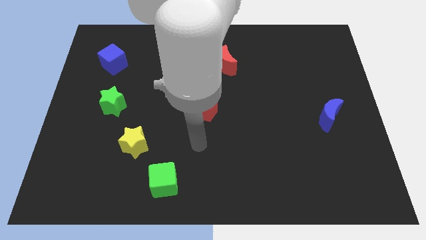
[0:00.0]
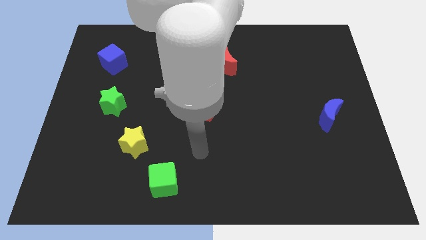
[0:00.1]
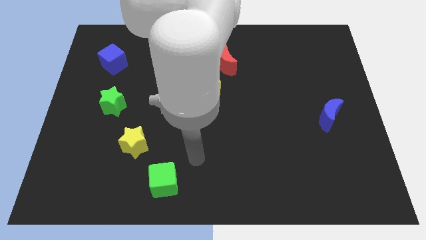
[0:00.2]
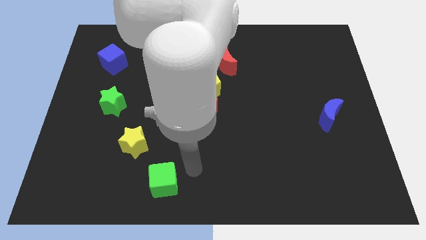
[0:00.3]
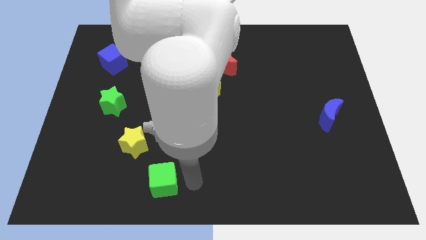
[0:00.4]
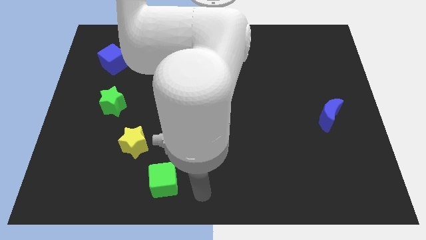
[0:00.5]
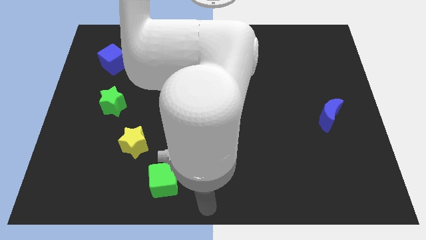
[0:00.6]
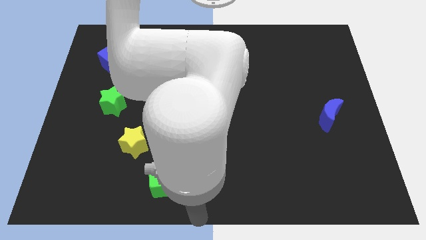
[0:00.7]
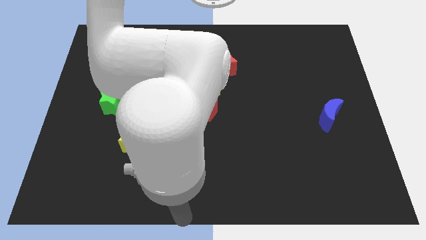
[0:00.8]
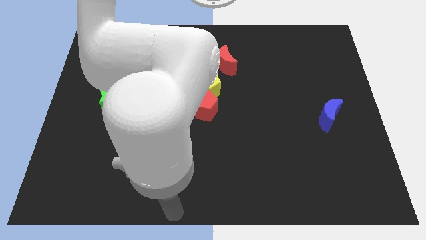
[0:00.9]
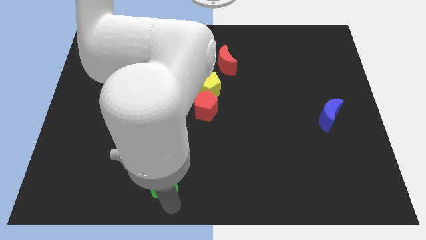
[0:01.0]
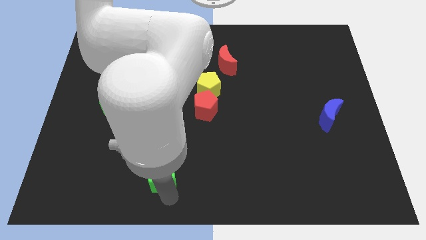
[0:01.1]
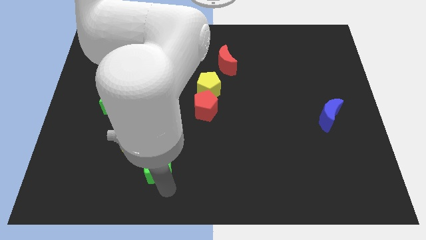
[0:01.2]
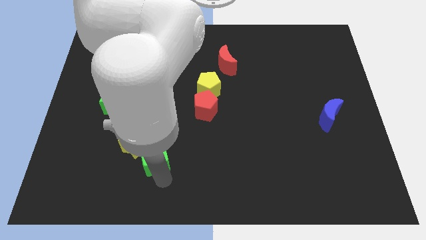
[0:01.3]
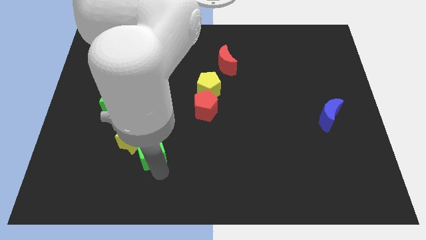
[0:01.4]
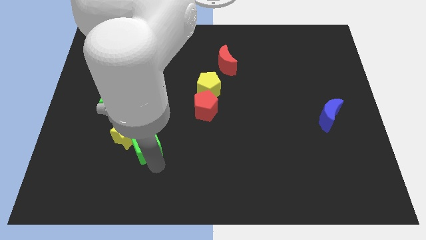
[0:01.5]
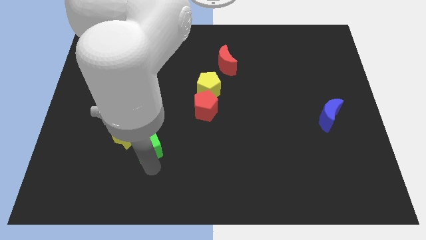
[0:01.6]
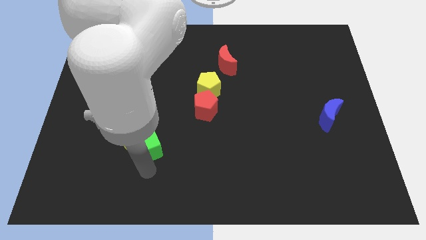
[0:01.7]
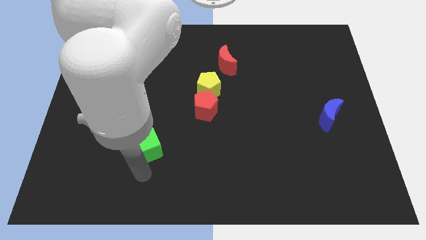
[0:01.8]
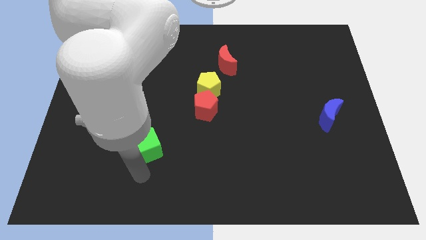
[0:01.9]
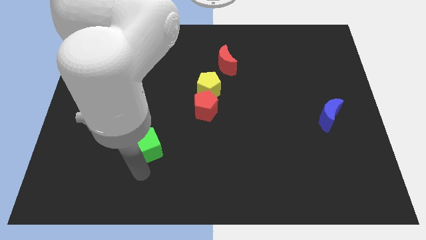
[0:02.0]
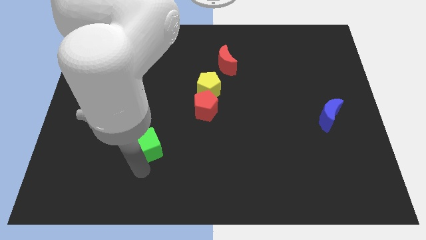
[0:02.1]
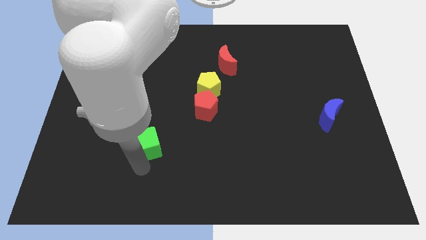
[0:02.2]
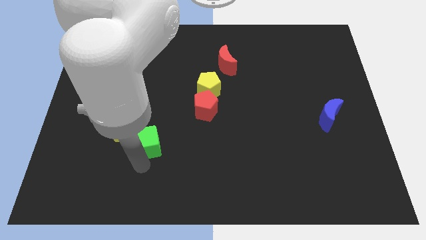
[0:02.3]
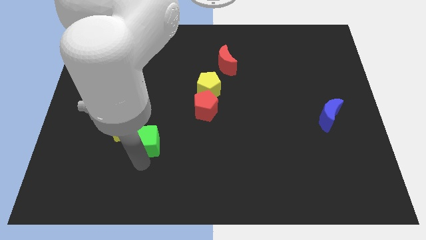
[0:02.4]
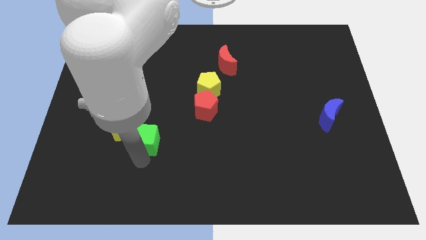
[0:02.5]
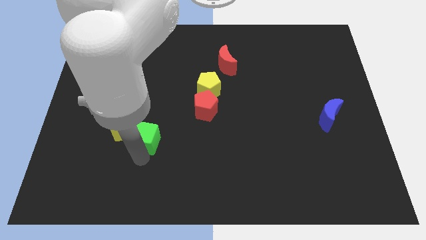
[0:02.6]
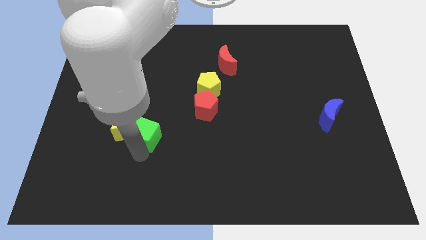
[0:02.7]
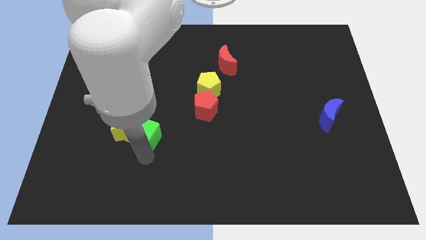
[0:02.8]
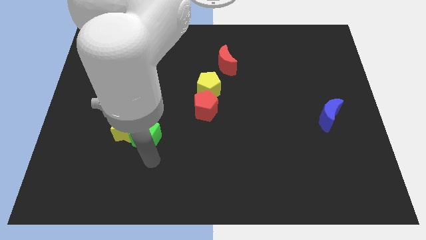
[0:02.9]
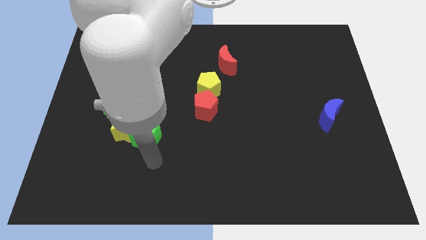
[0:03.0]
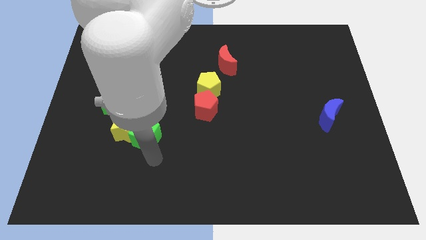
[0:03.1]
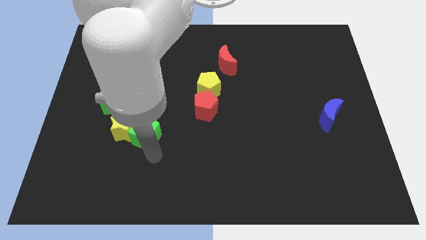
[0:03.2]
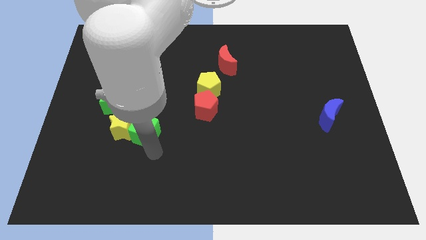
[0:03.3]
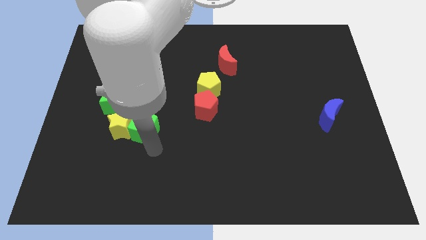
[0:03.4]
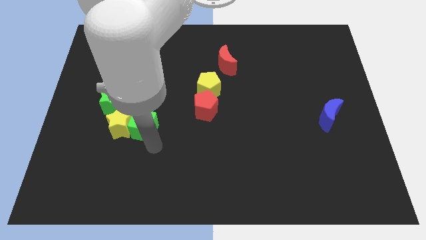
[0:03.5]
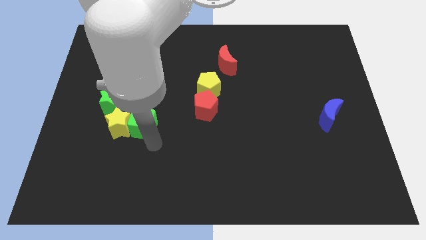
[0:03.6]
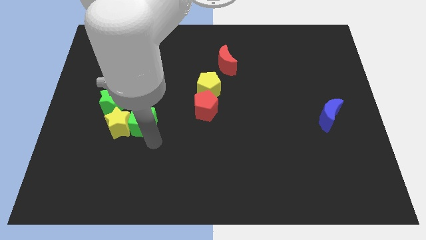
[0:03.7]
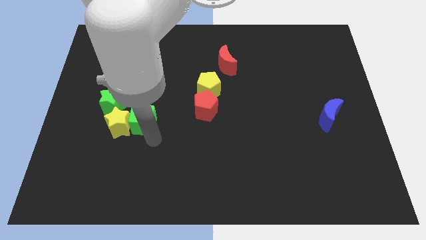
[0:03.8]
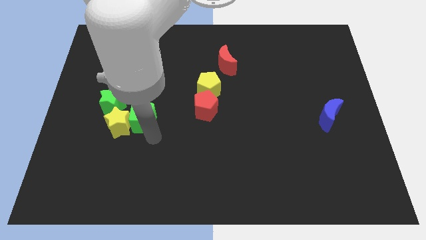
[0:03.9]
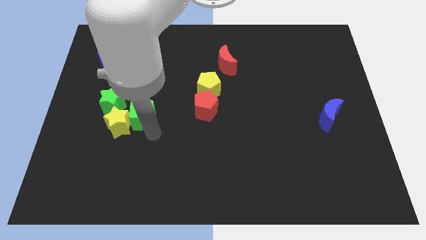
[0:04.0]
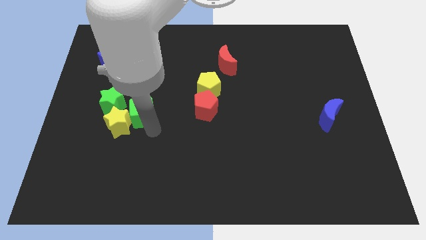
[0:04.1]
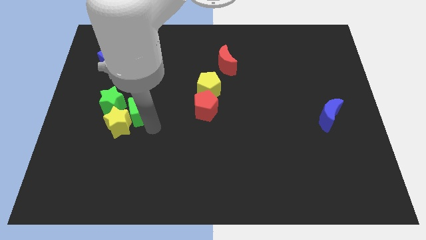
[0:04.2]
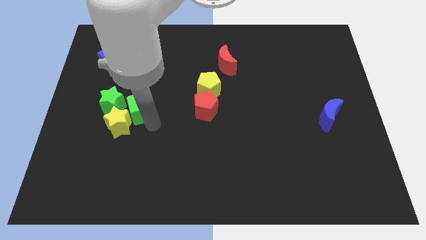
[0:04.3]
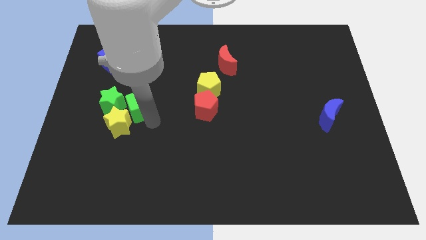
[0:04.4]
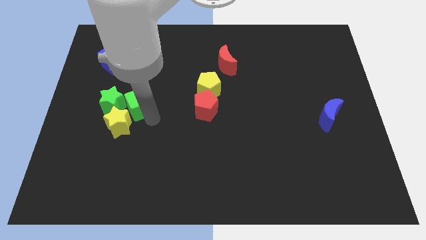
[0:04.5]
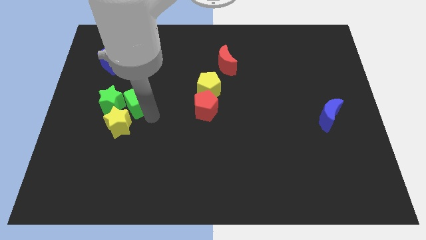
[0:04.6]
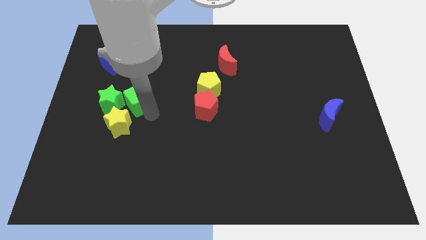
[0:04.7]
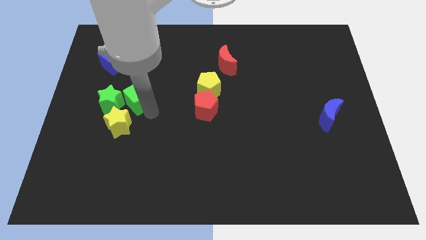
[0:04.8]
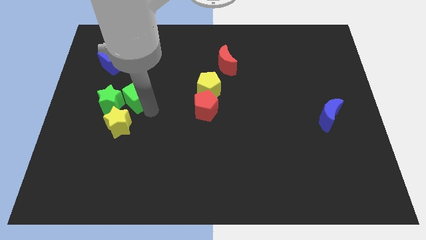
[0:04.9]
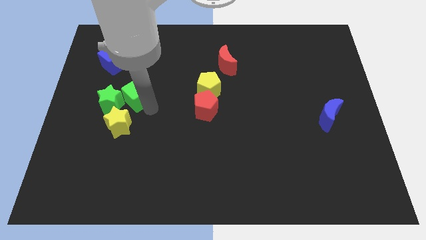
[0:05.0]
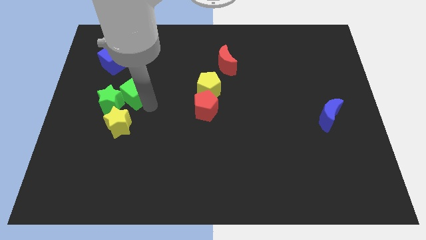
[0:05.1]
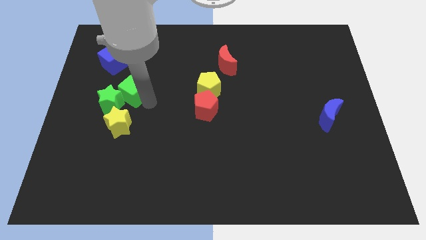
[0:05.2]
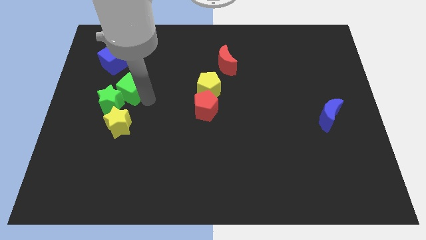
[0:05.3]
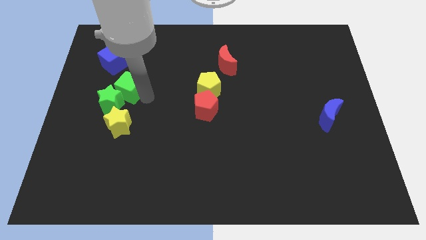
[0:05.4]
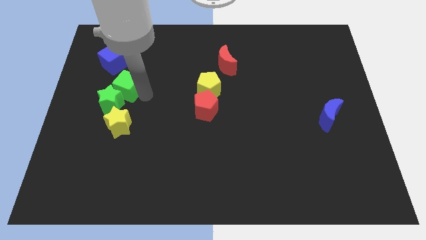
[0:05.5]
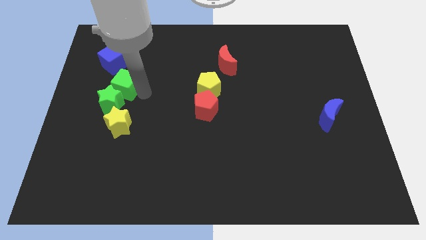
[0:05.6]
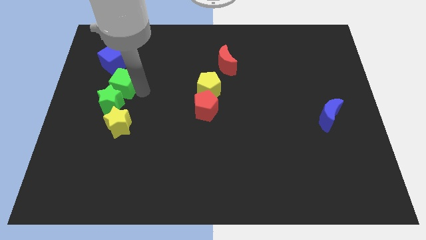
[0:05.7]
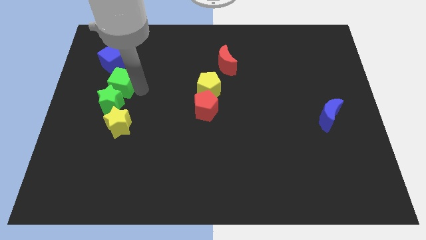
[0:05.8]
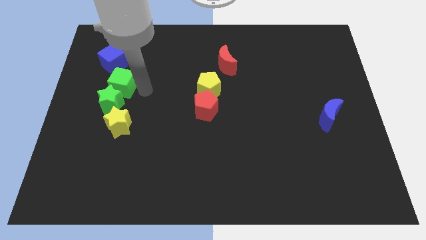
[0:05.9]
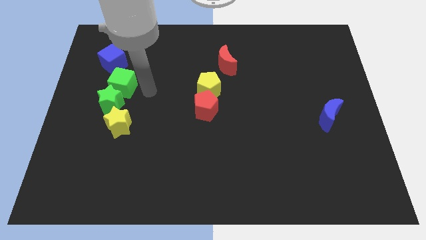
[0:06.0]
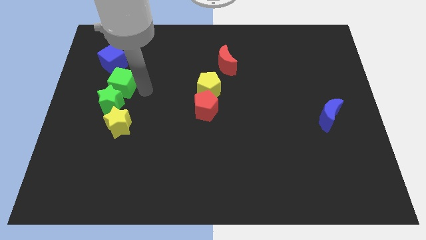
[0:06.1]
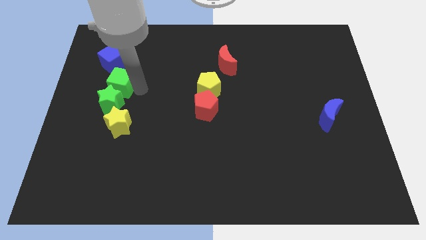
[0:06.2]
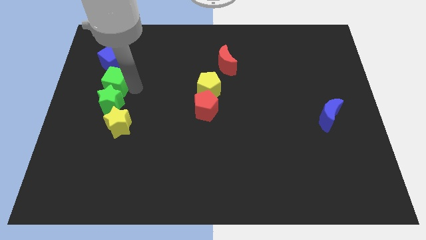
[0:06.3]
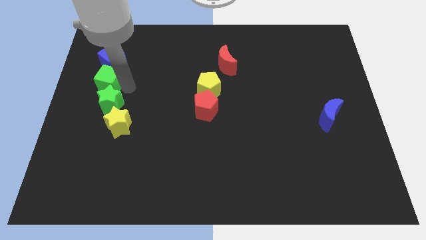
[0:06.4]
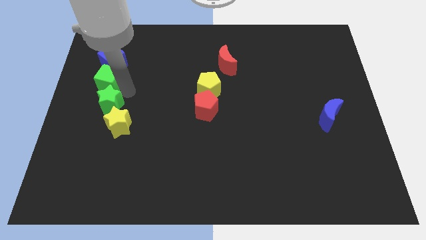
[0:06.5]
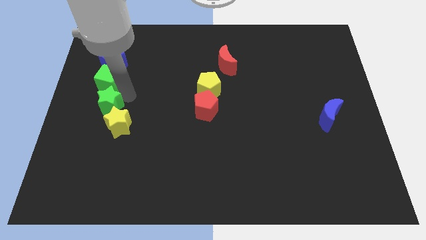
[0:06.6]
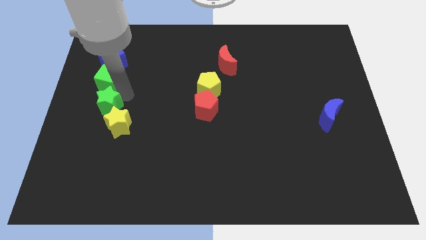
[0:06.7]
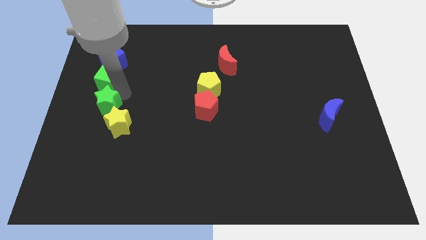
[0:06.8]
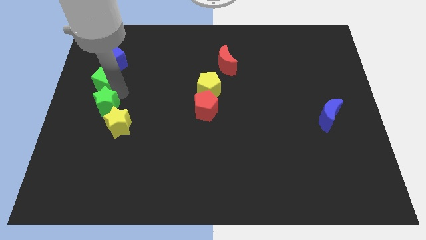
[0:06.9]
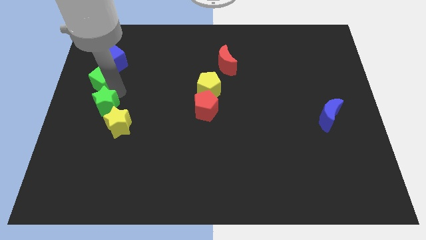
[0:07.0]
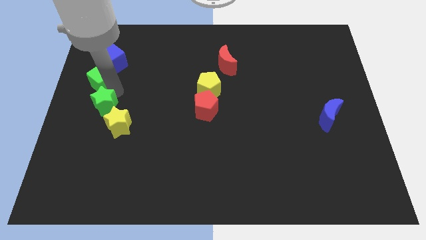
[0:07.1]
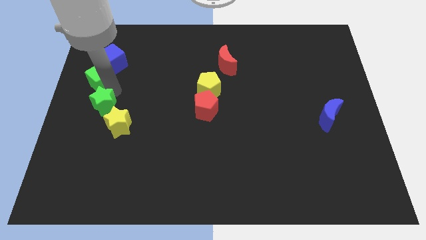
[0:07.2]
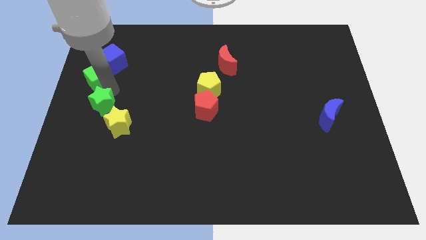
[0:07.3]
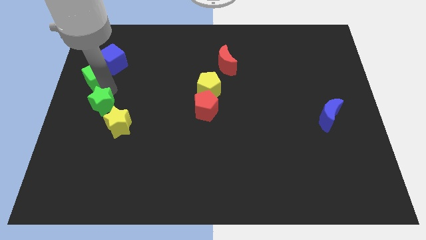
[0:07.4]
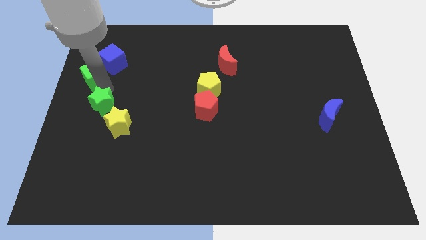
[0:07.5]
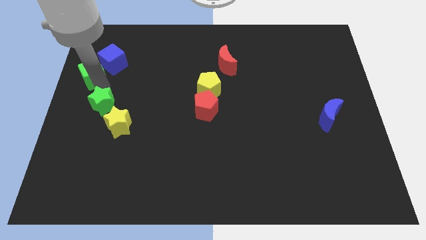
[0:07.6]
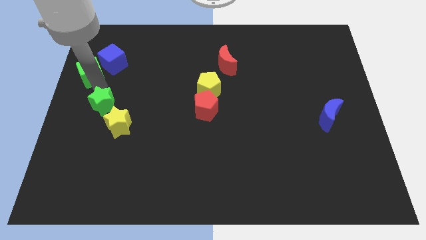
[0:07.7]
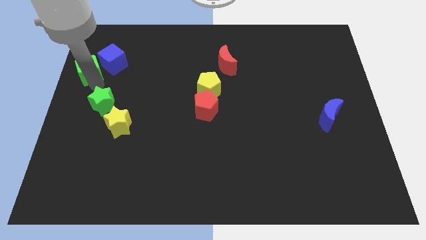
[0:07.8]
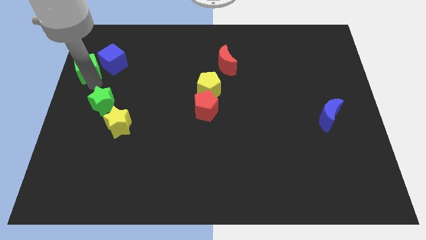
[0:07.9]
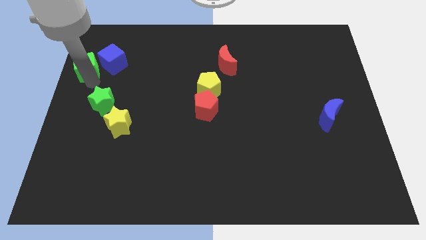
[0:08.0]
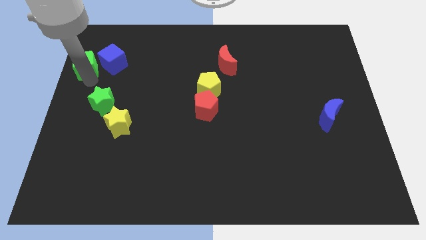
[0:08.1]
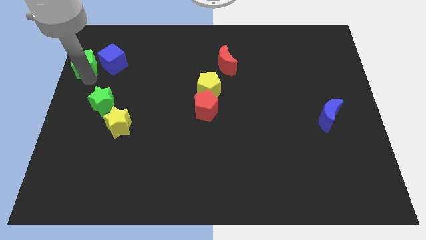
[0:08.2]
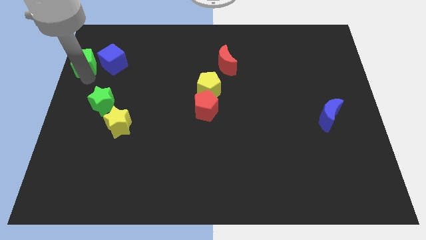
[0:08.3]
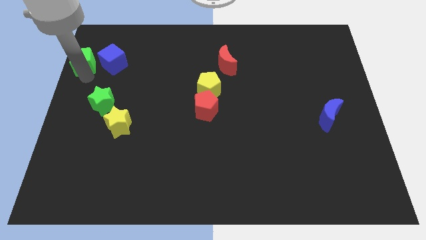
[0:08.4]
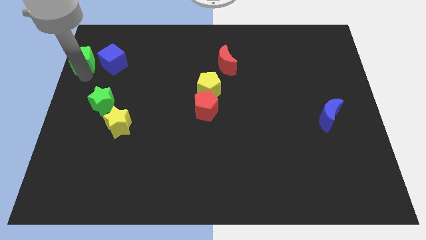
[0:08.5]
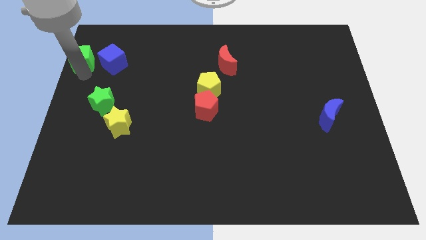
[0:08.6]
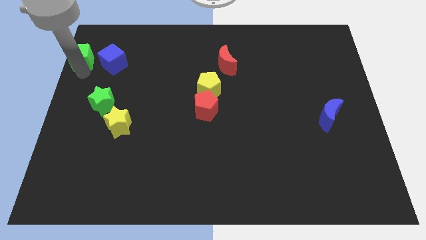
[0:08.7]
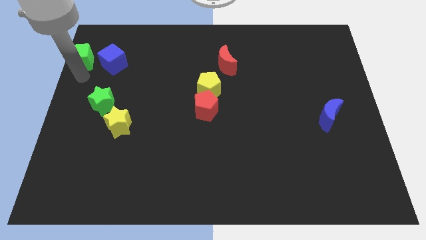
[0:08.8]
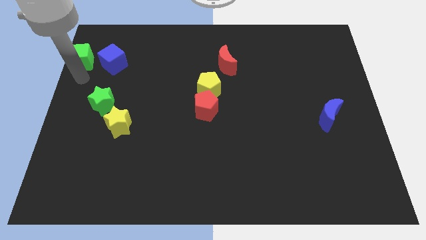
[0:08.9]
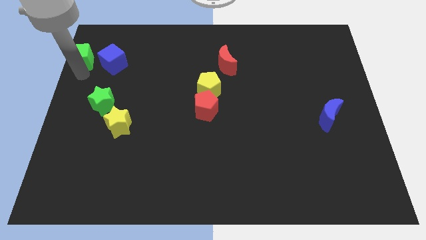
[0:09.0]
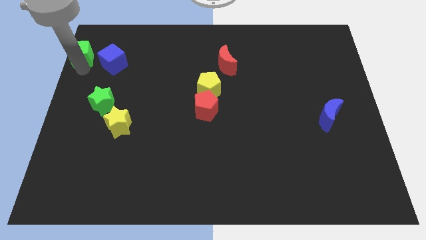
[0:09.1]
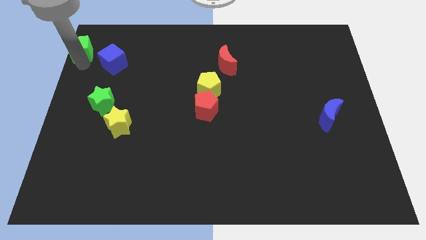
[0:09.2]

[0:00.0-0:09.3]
push the green cube to the top left of the board
